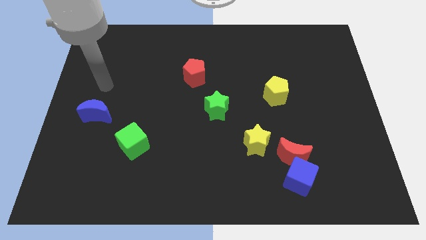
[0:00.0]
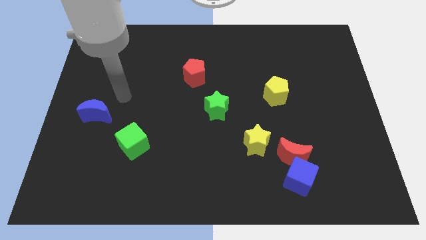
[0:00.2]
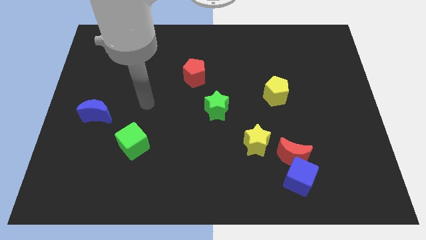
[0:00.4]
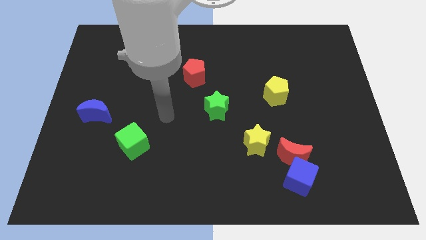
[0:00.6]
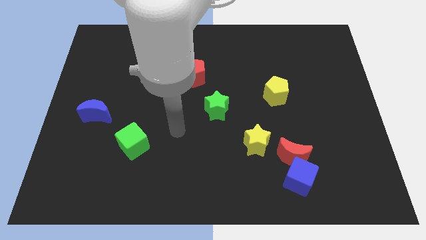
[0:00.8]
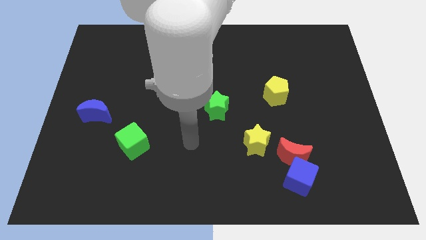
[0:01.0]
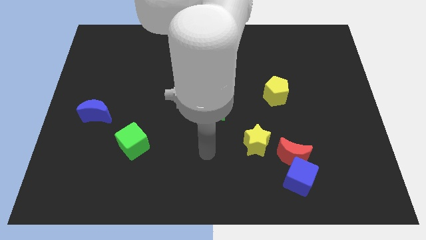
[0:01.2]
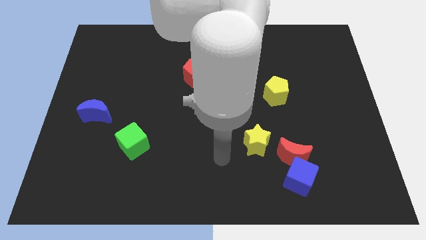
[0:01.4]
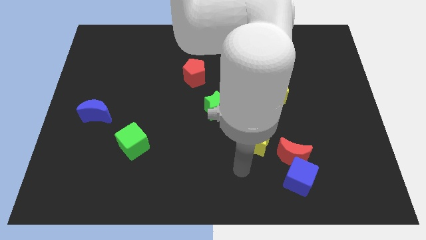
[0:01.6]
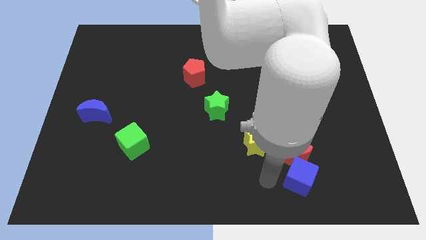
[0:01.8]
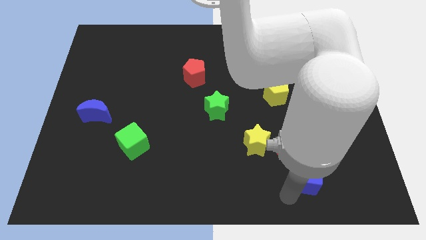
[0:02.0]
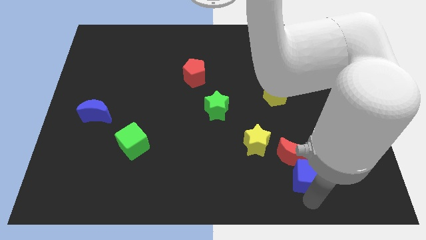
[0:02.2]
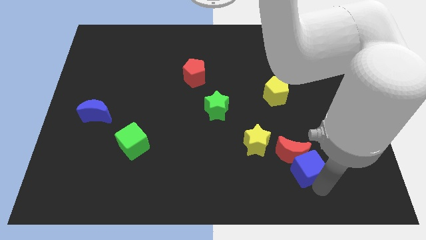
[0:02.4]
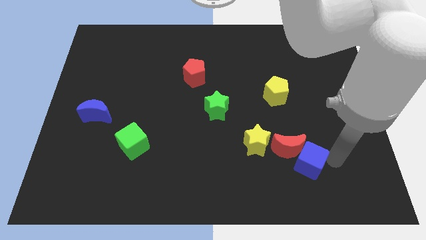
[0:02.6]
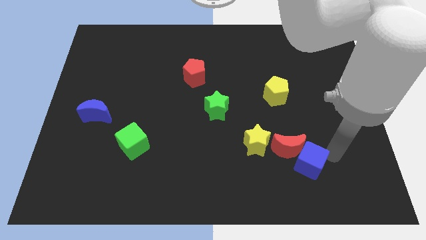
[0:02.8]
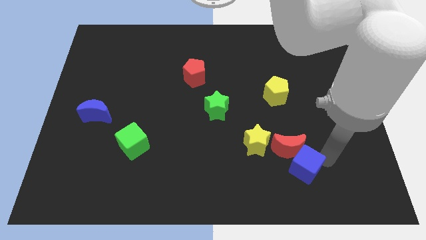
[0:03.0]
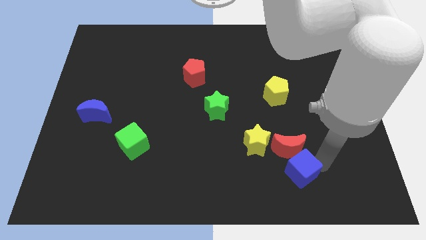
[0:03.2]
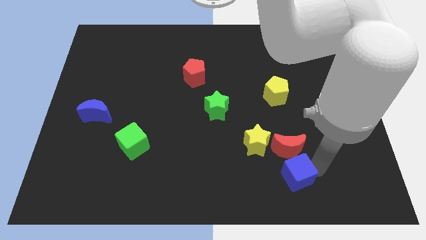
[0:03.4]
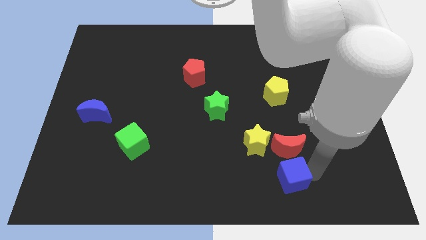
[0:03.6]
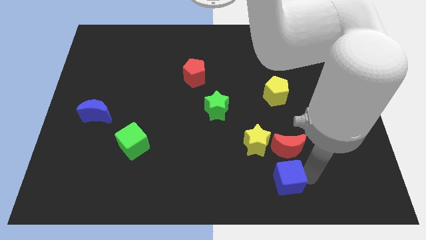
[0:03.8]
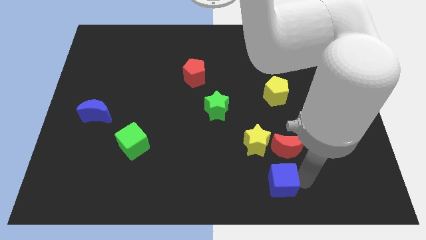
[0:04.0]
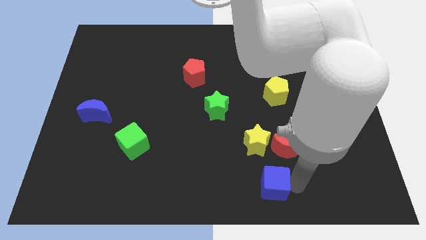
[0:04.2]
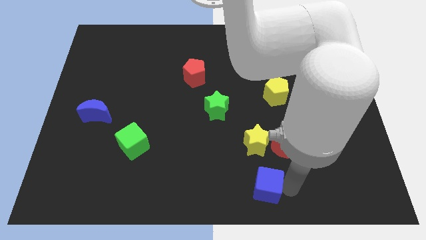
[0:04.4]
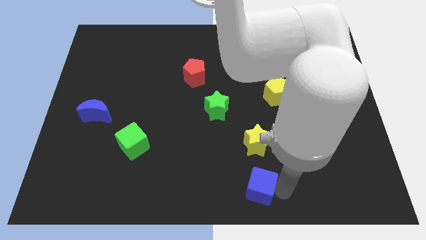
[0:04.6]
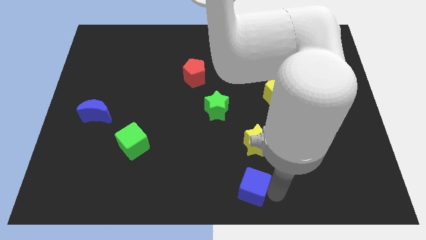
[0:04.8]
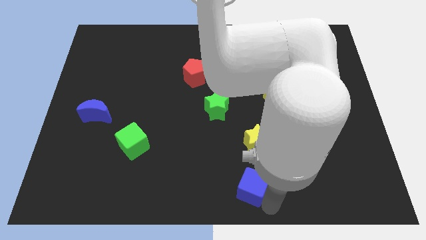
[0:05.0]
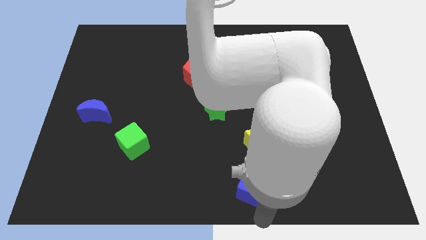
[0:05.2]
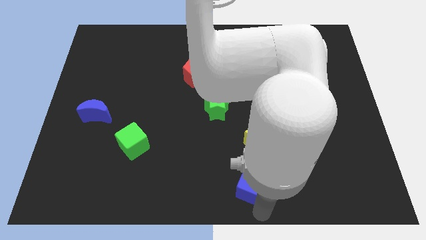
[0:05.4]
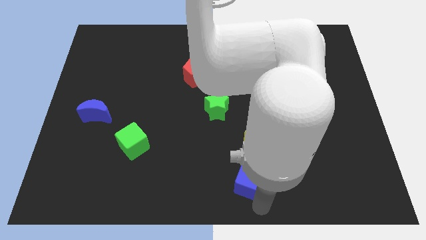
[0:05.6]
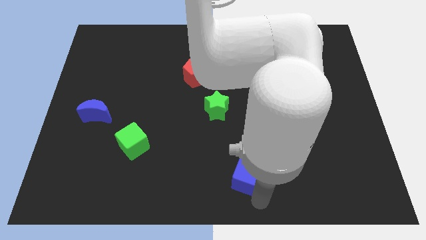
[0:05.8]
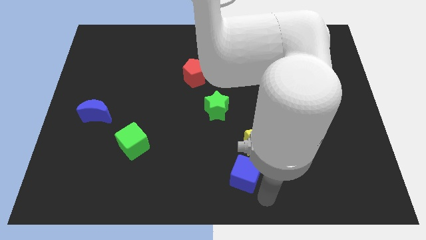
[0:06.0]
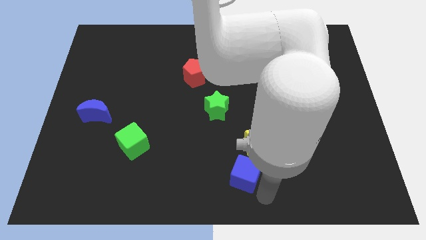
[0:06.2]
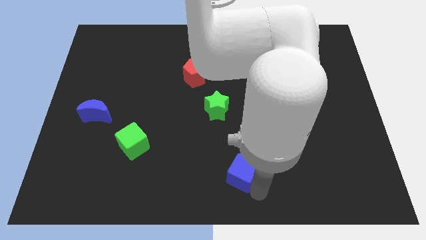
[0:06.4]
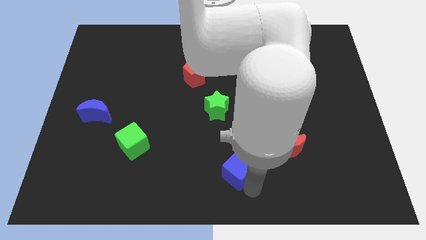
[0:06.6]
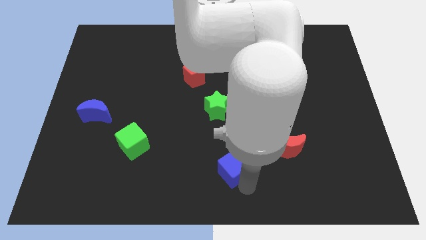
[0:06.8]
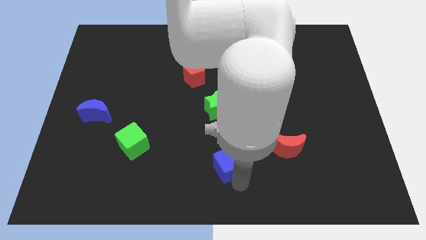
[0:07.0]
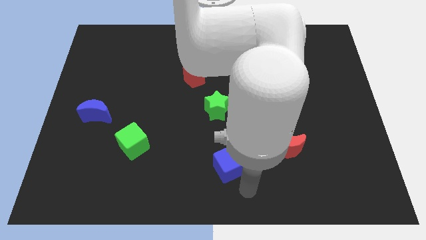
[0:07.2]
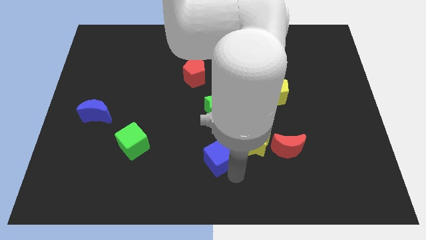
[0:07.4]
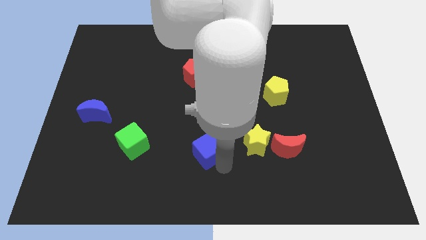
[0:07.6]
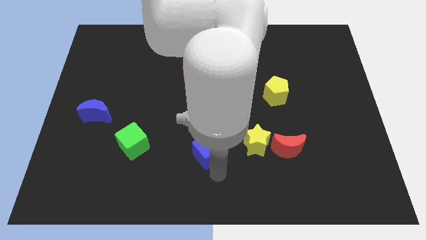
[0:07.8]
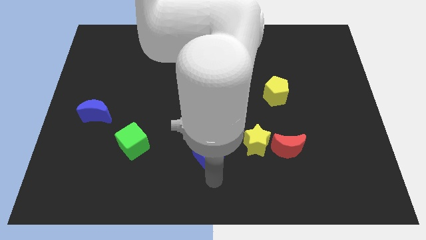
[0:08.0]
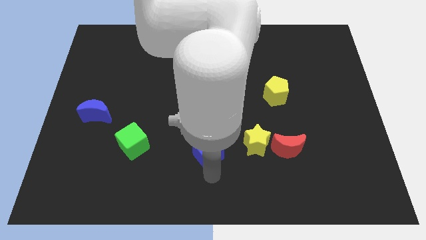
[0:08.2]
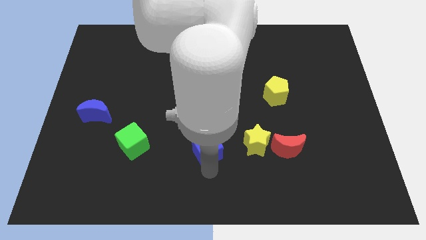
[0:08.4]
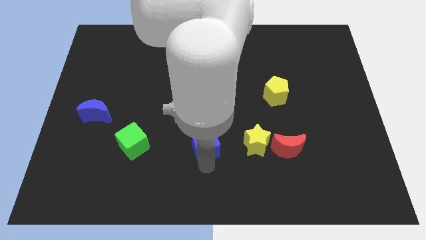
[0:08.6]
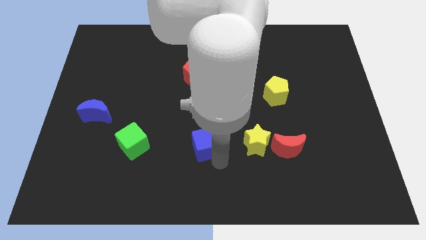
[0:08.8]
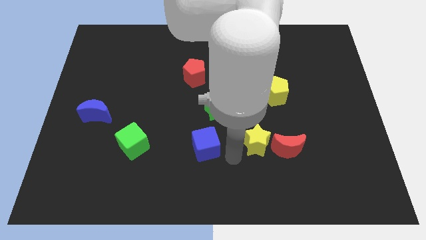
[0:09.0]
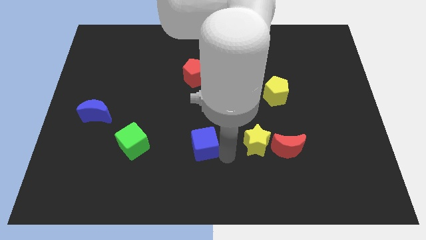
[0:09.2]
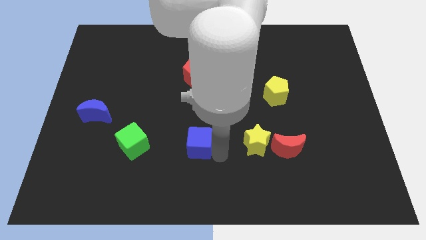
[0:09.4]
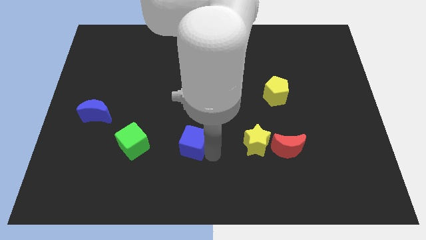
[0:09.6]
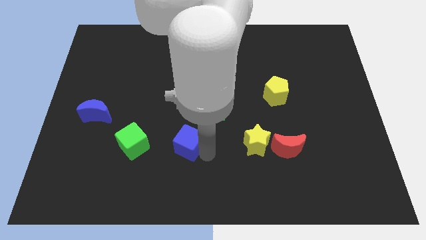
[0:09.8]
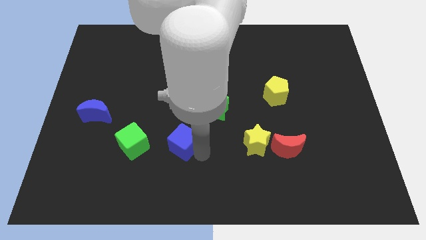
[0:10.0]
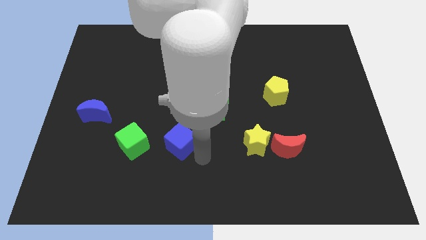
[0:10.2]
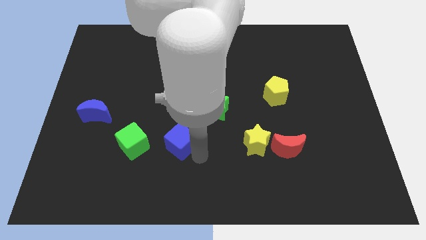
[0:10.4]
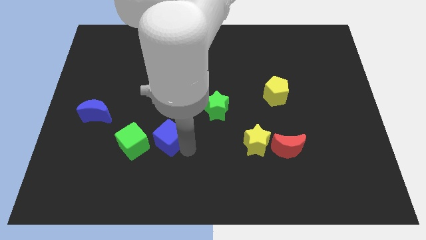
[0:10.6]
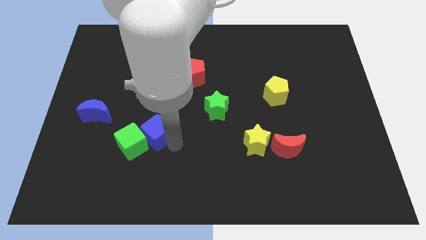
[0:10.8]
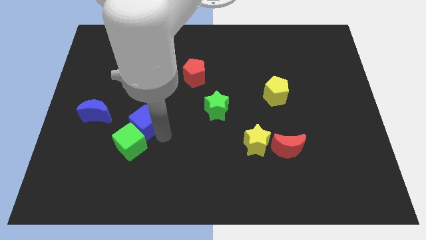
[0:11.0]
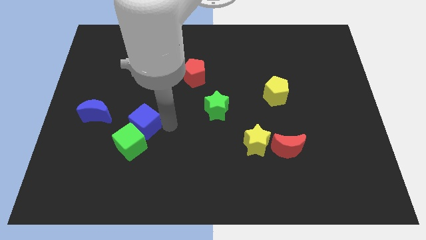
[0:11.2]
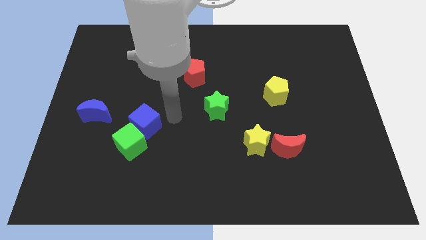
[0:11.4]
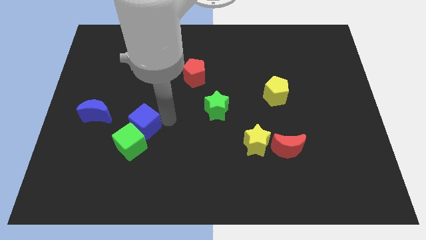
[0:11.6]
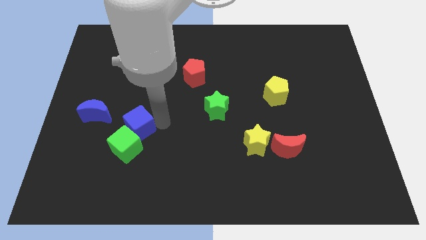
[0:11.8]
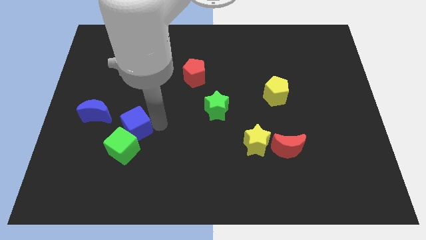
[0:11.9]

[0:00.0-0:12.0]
move the blue cube to the bottom right of the blue moon
